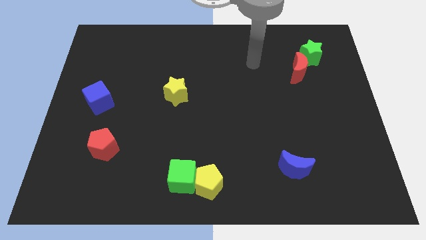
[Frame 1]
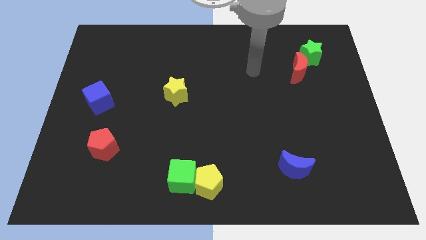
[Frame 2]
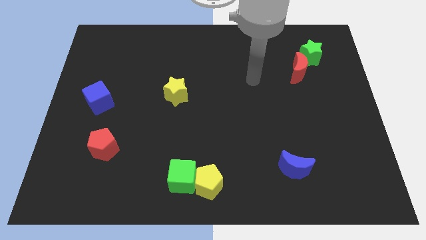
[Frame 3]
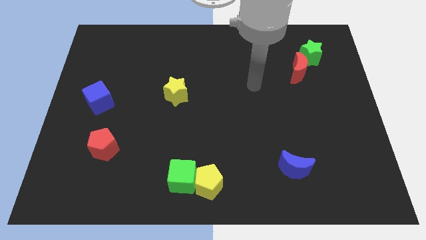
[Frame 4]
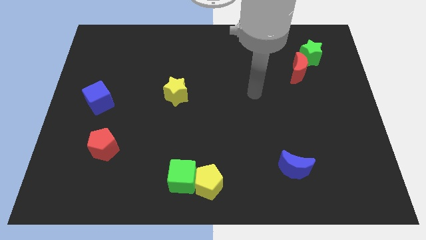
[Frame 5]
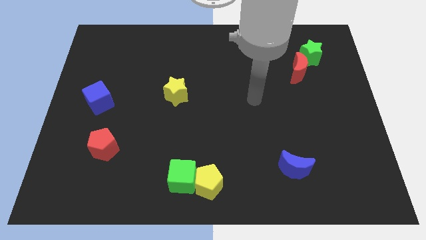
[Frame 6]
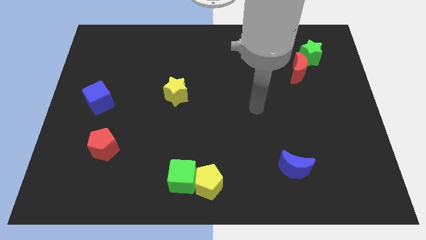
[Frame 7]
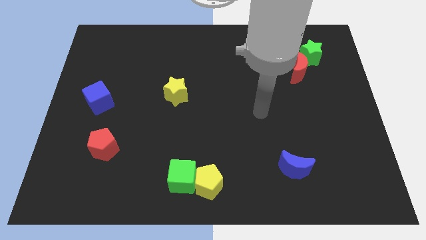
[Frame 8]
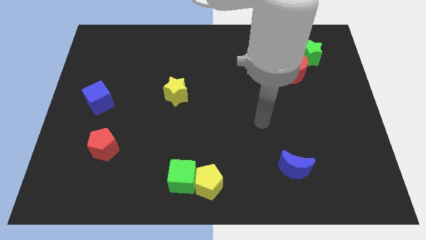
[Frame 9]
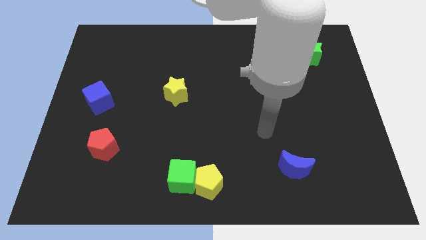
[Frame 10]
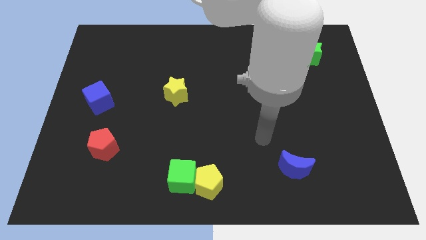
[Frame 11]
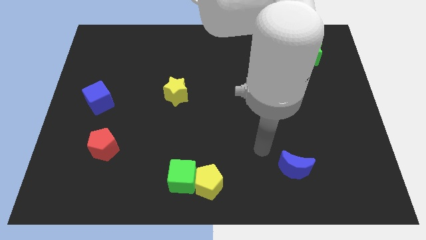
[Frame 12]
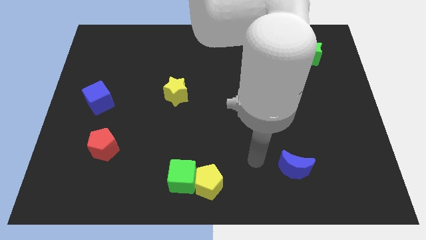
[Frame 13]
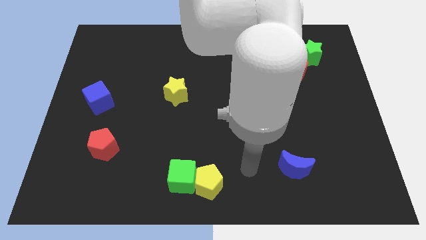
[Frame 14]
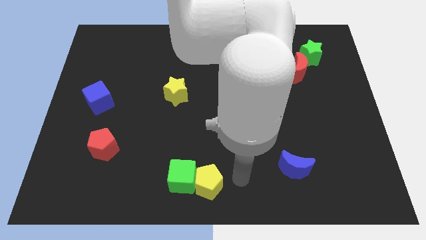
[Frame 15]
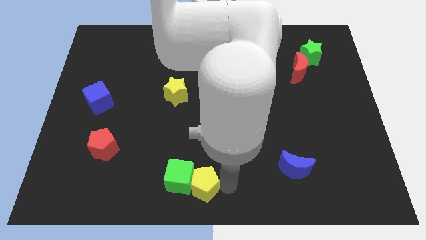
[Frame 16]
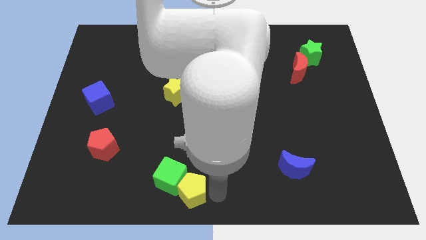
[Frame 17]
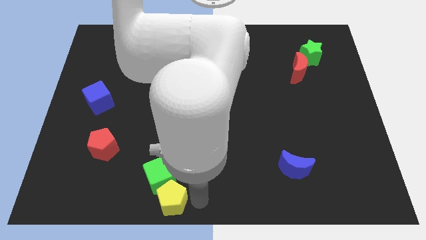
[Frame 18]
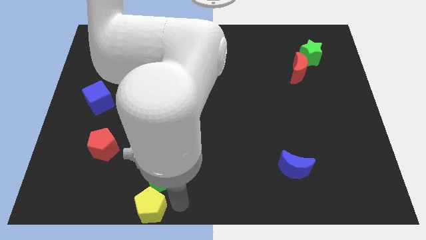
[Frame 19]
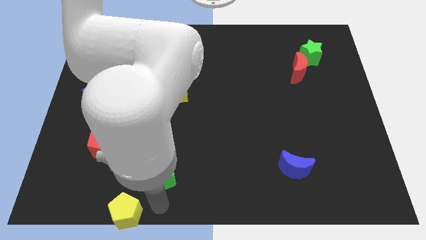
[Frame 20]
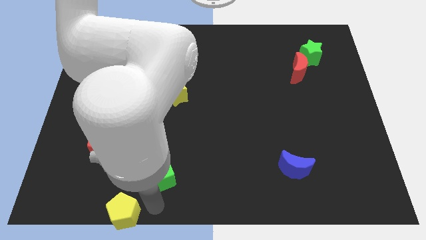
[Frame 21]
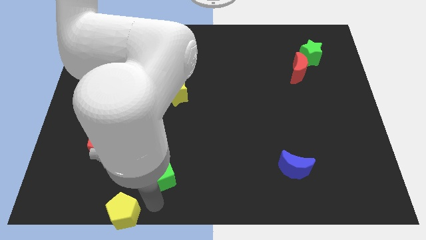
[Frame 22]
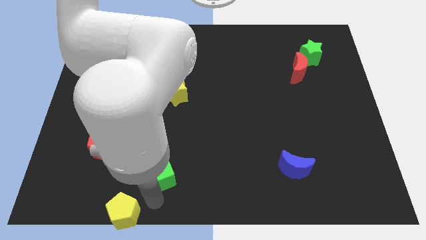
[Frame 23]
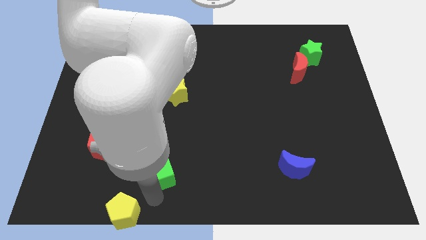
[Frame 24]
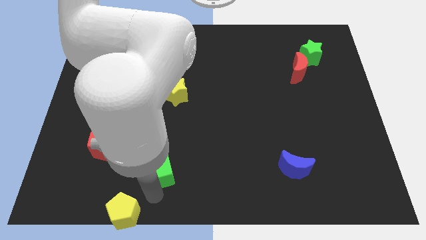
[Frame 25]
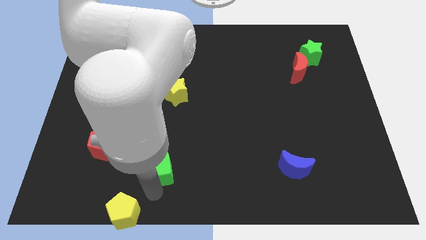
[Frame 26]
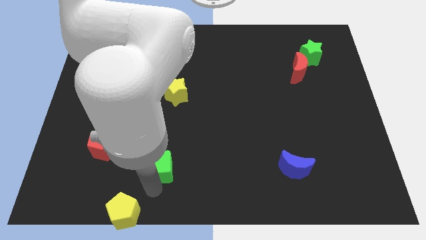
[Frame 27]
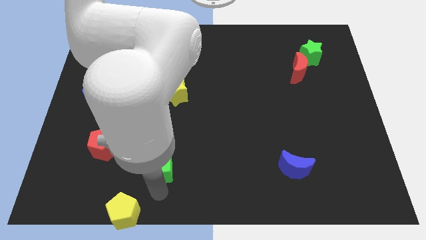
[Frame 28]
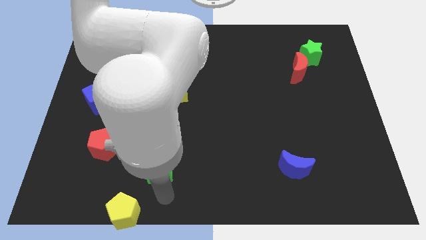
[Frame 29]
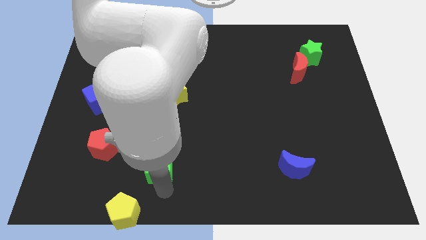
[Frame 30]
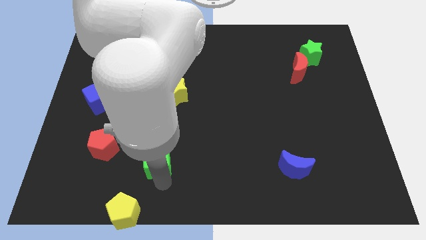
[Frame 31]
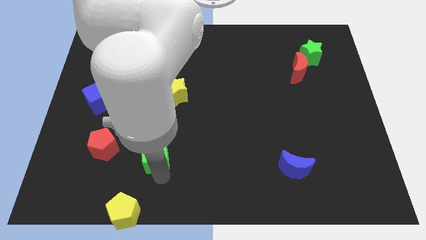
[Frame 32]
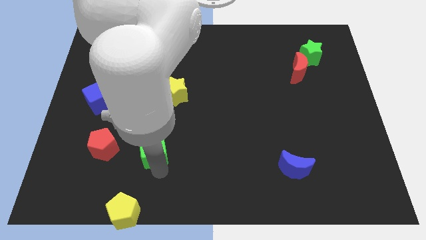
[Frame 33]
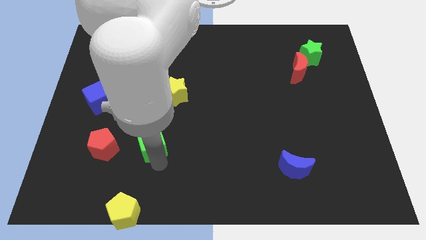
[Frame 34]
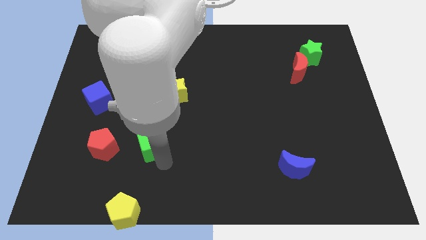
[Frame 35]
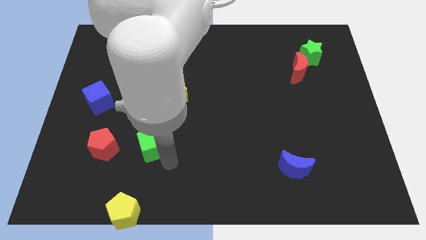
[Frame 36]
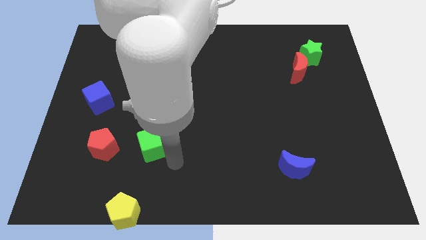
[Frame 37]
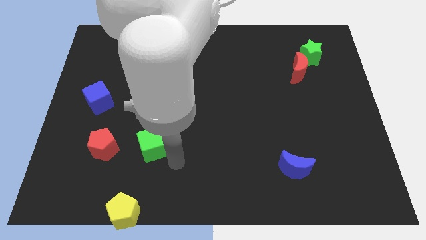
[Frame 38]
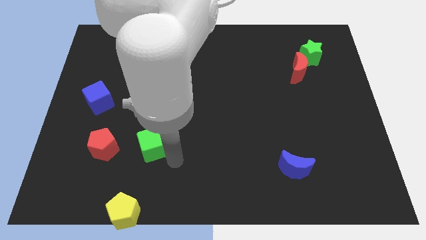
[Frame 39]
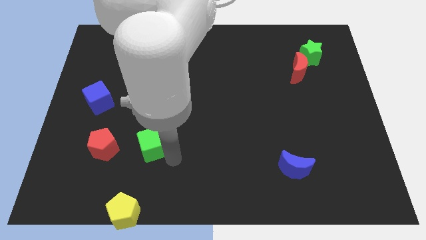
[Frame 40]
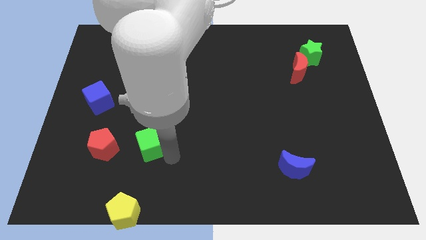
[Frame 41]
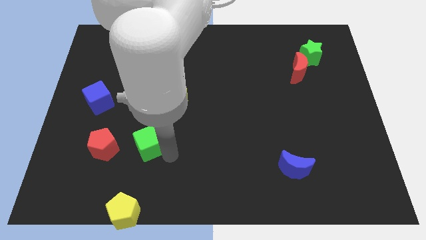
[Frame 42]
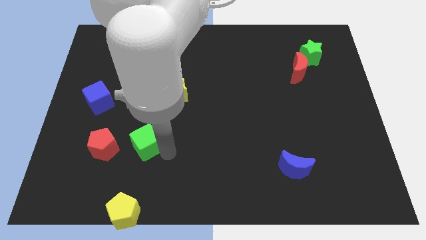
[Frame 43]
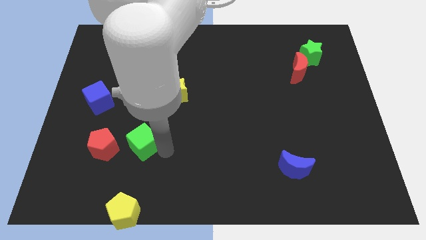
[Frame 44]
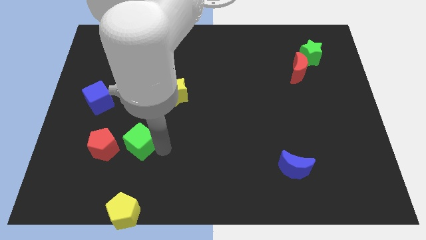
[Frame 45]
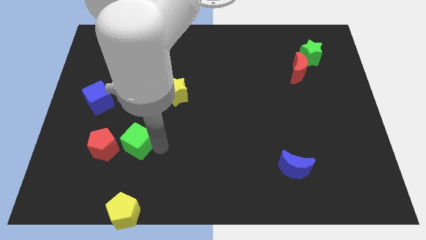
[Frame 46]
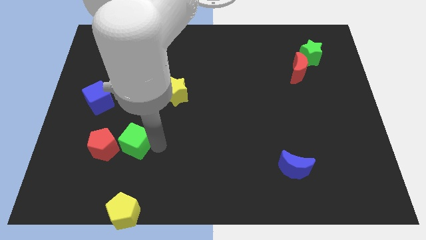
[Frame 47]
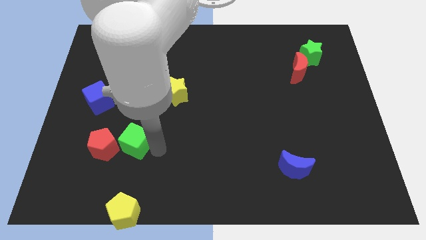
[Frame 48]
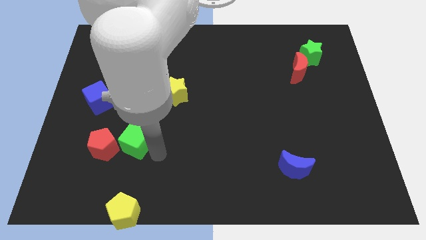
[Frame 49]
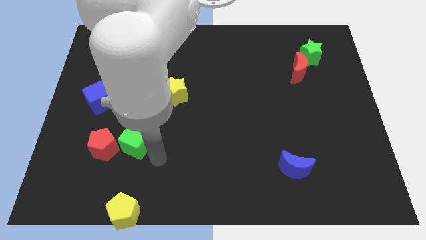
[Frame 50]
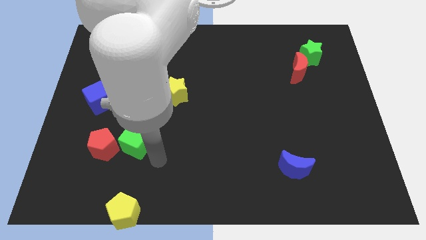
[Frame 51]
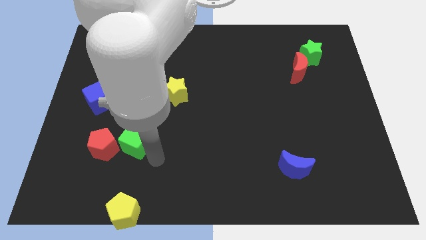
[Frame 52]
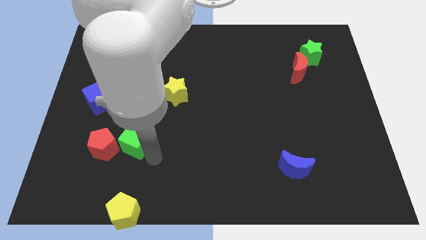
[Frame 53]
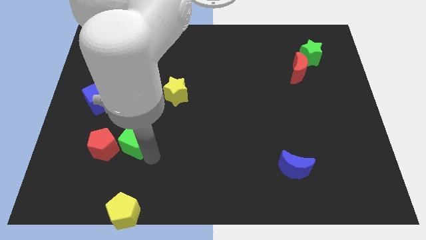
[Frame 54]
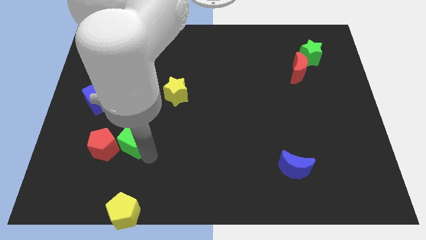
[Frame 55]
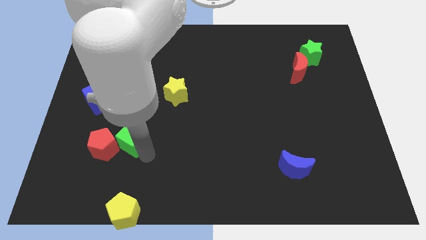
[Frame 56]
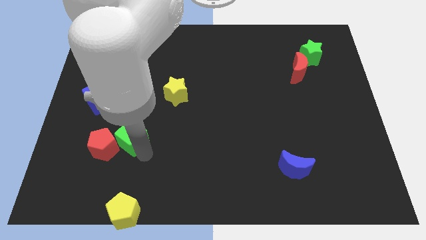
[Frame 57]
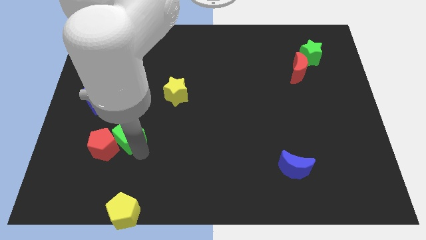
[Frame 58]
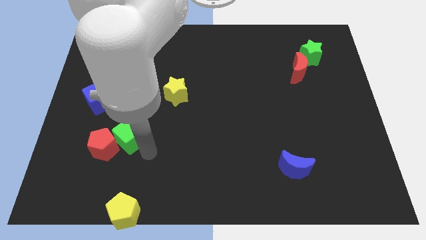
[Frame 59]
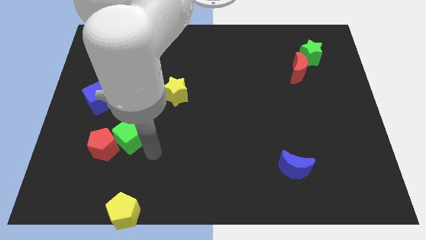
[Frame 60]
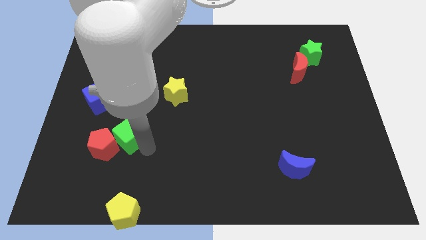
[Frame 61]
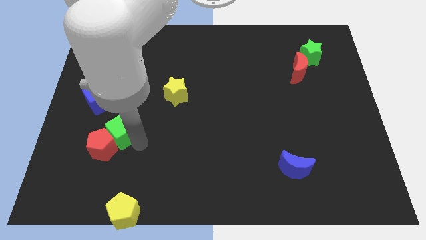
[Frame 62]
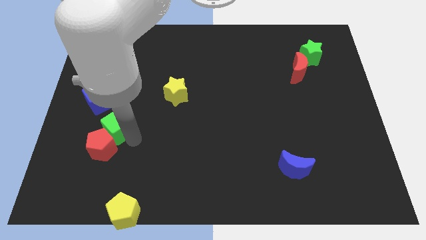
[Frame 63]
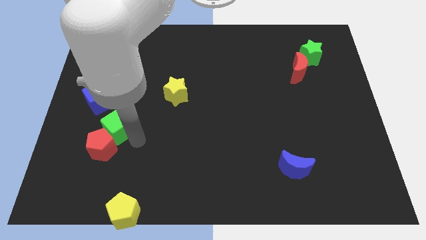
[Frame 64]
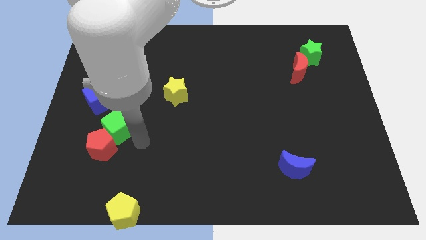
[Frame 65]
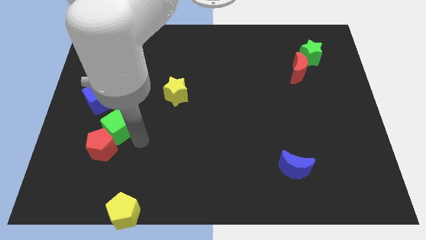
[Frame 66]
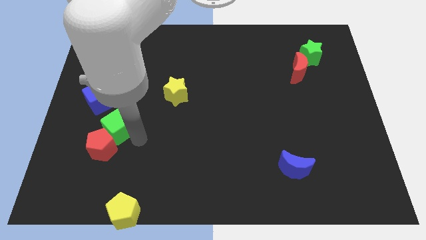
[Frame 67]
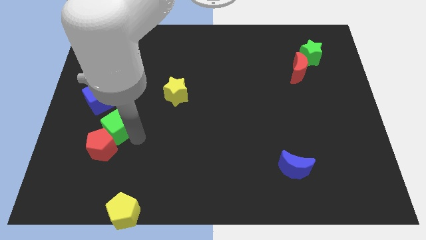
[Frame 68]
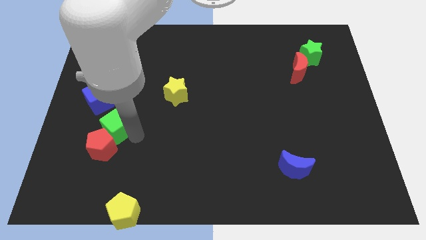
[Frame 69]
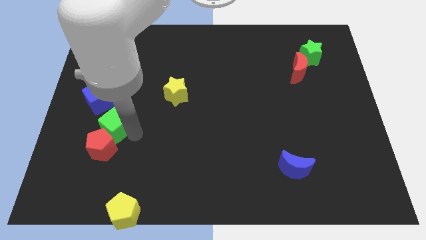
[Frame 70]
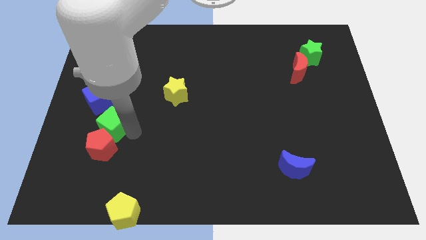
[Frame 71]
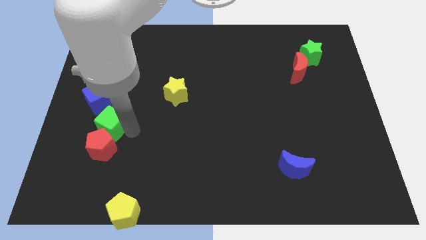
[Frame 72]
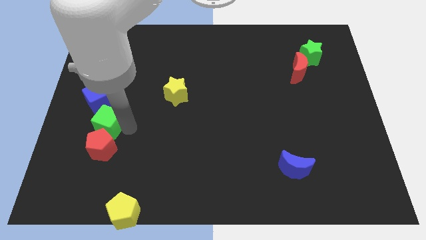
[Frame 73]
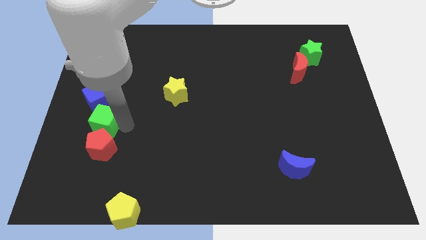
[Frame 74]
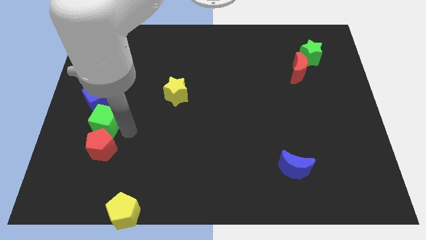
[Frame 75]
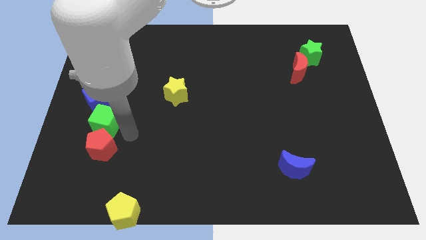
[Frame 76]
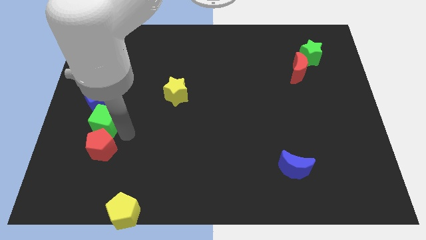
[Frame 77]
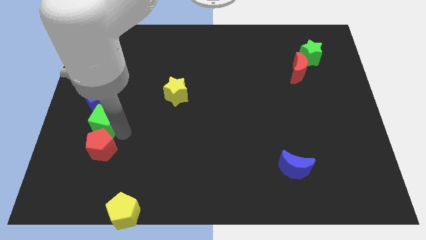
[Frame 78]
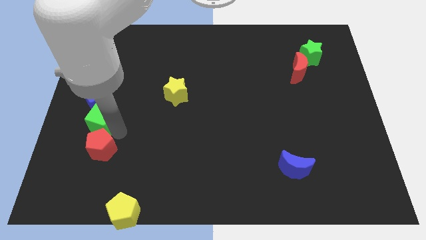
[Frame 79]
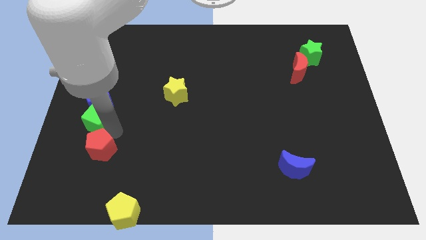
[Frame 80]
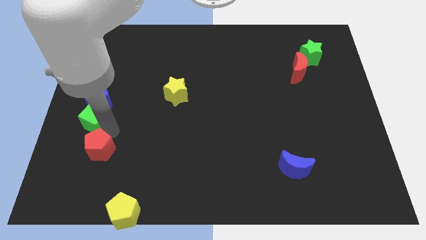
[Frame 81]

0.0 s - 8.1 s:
push the green cube to the left side
